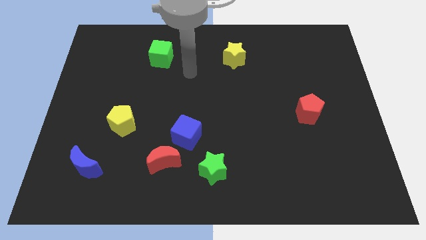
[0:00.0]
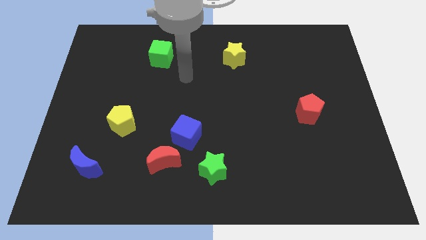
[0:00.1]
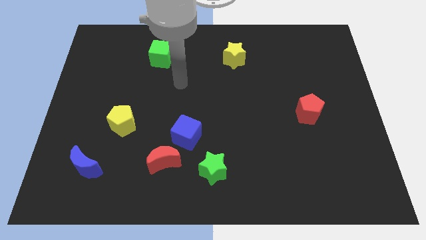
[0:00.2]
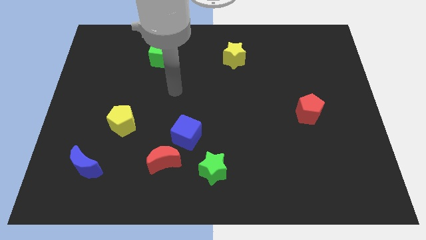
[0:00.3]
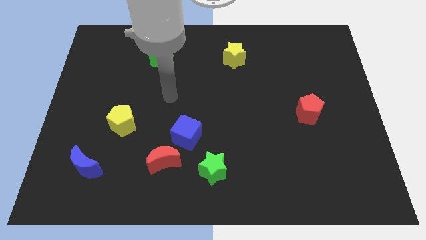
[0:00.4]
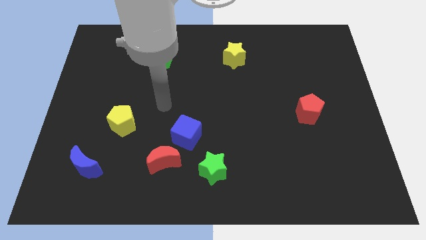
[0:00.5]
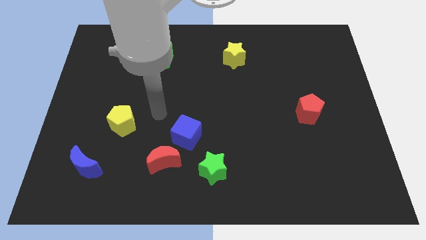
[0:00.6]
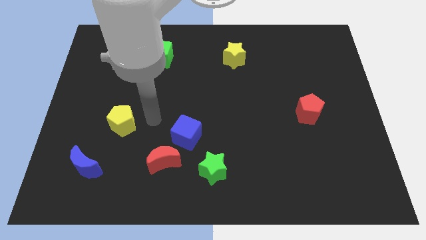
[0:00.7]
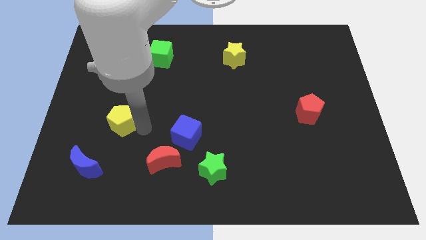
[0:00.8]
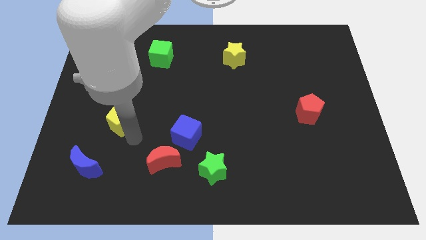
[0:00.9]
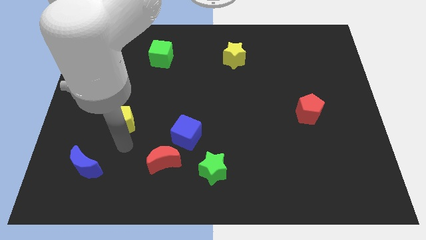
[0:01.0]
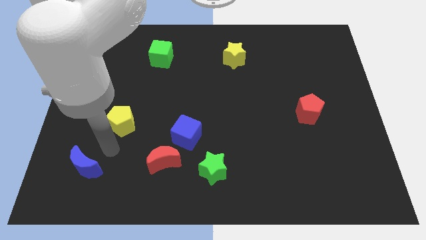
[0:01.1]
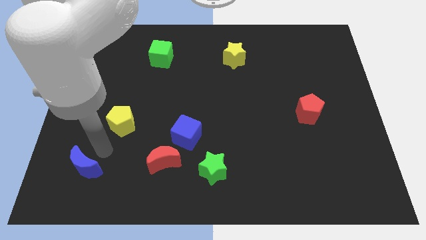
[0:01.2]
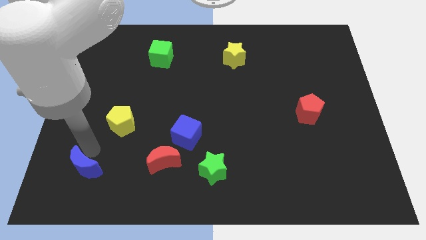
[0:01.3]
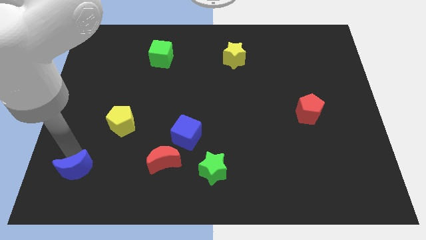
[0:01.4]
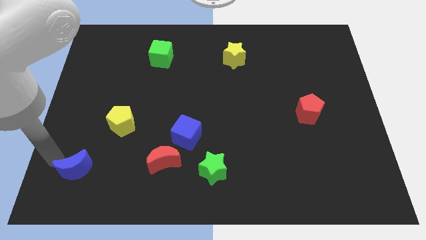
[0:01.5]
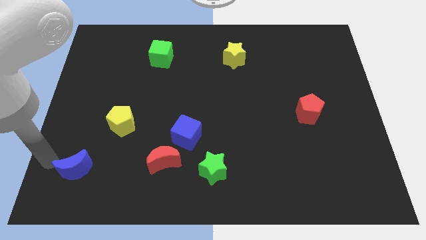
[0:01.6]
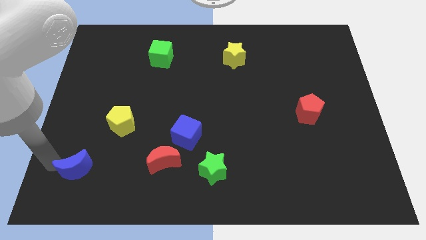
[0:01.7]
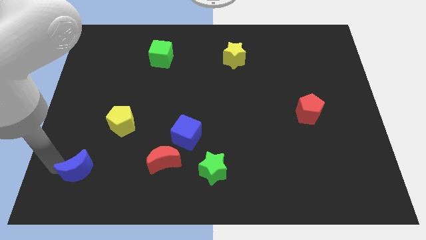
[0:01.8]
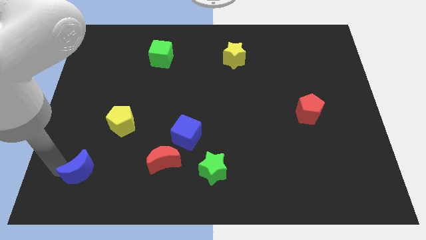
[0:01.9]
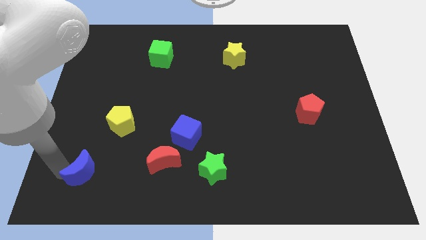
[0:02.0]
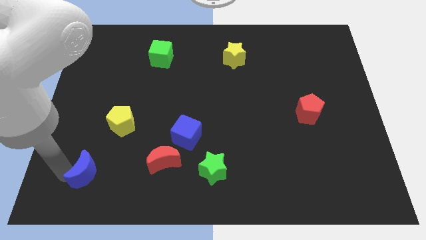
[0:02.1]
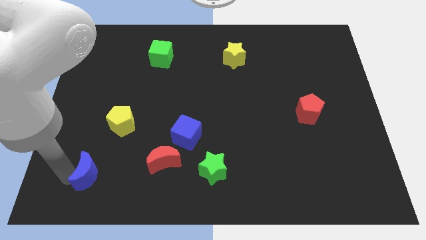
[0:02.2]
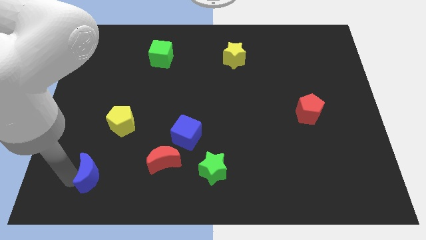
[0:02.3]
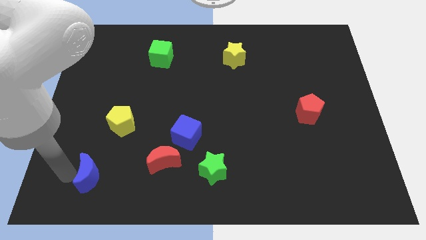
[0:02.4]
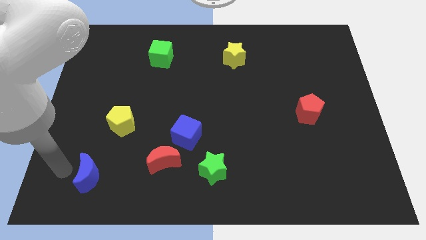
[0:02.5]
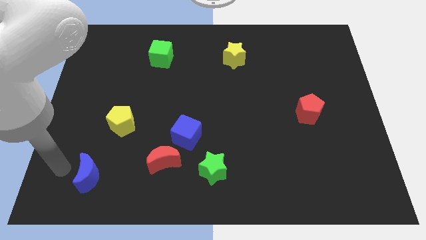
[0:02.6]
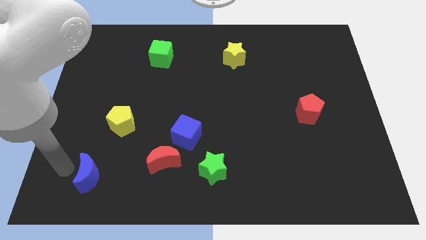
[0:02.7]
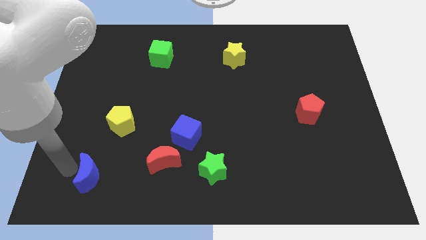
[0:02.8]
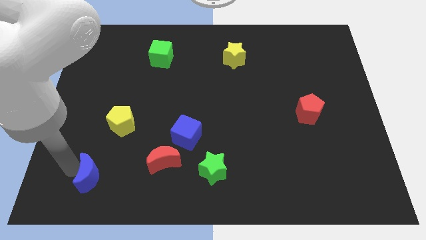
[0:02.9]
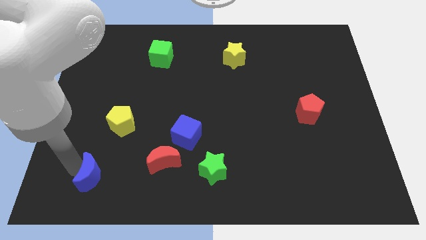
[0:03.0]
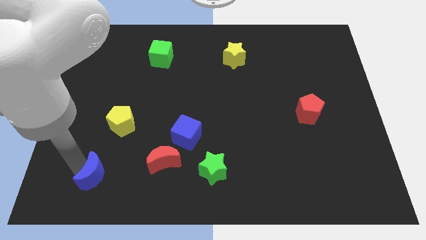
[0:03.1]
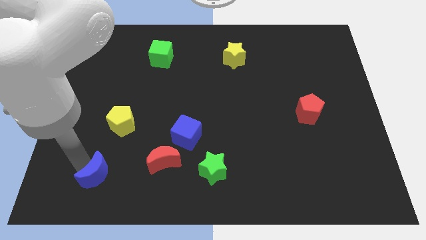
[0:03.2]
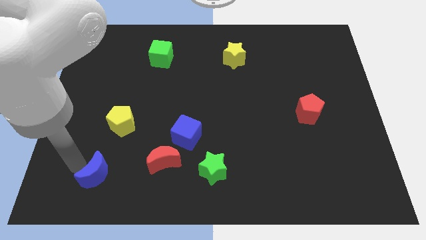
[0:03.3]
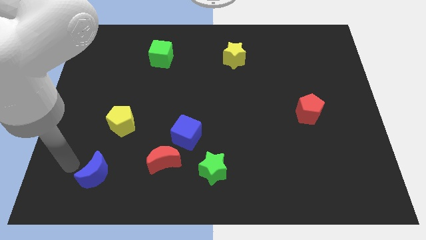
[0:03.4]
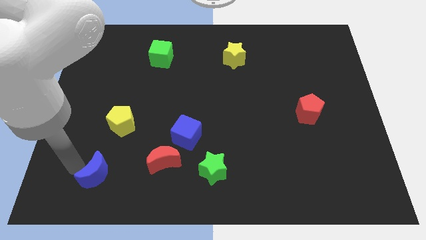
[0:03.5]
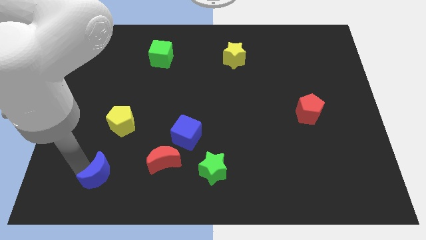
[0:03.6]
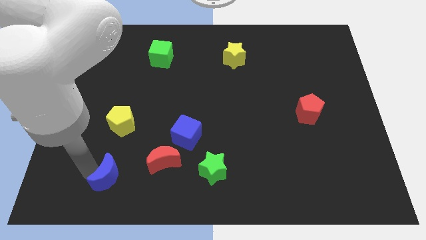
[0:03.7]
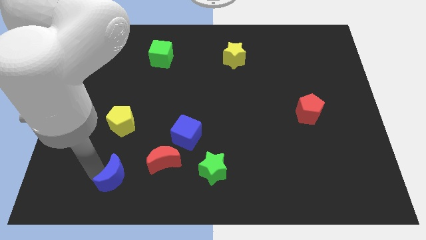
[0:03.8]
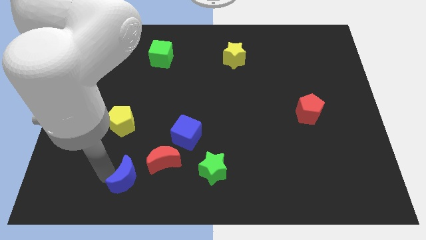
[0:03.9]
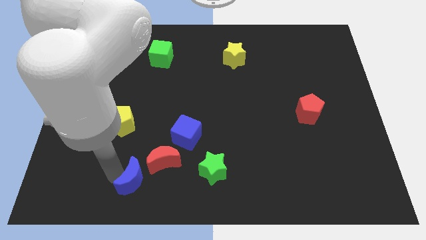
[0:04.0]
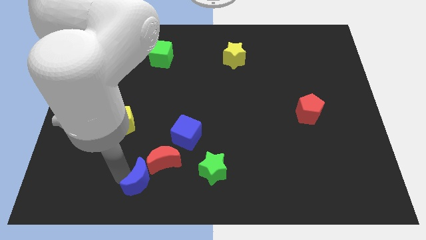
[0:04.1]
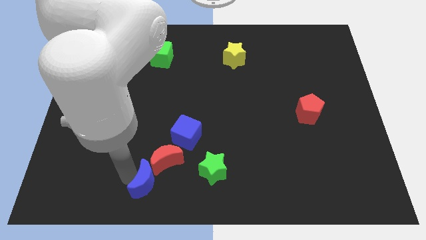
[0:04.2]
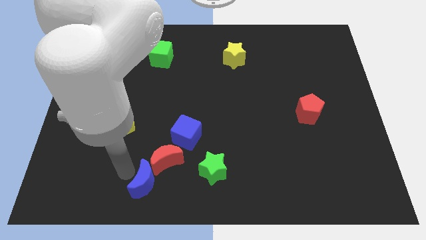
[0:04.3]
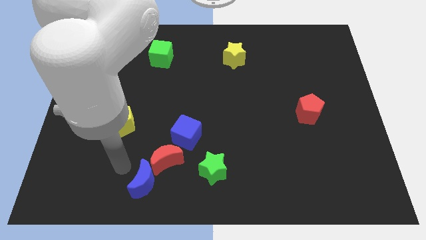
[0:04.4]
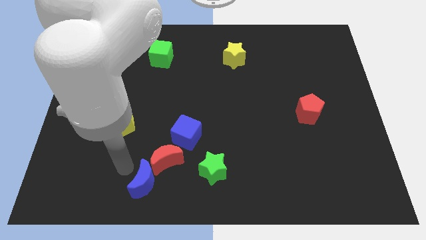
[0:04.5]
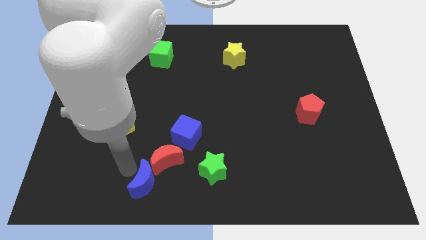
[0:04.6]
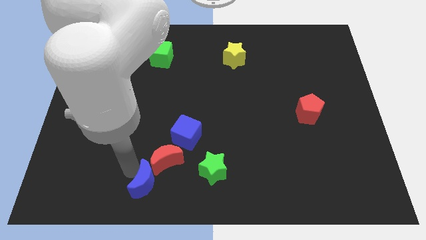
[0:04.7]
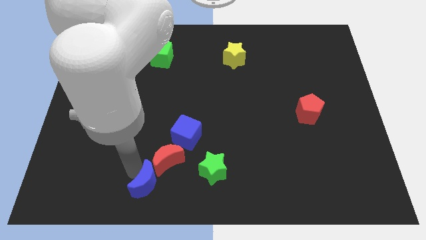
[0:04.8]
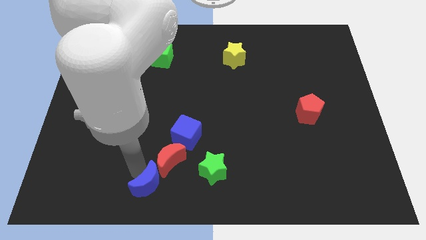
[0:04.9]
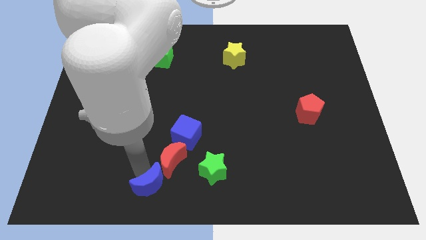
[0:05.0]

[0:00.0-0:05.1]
move the blue moon to the bottom side

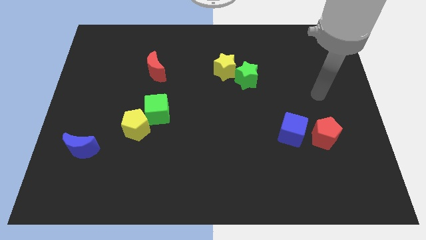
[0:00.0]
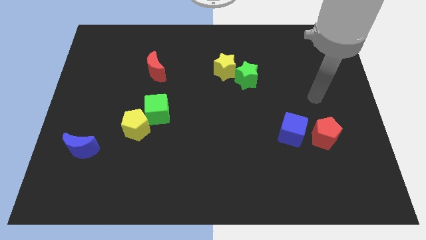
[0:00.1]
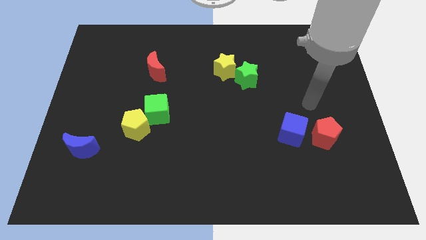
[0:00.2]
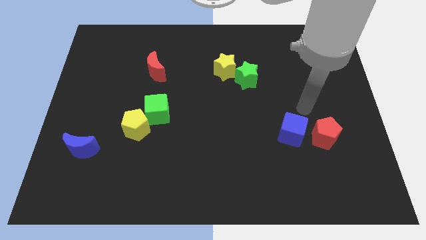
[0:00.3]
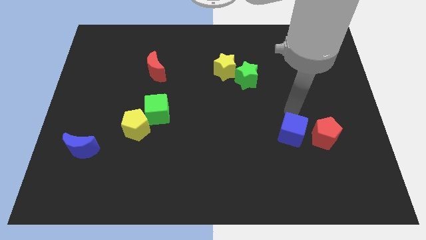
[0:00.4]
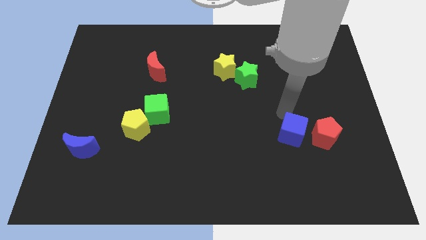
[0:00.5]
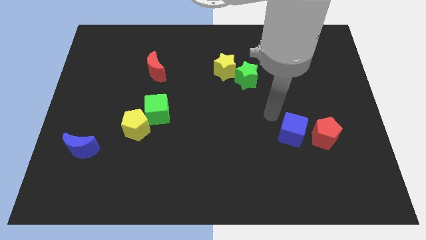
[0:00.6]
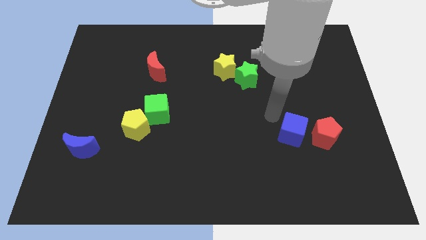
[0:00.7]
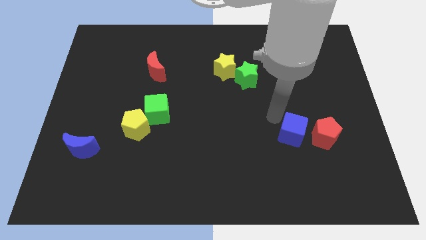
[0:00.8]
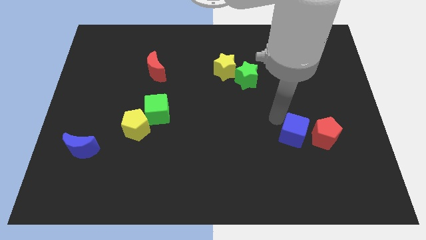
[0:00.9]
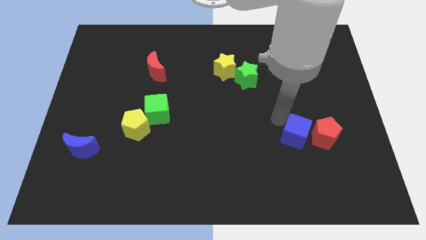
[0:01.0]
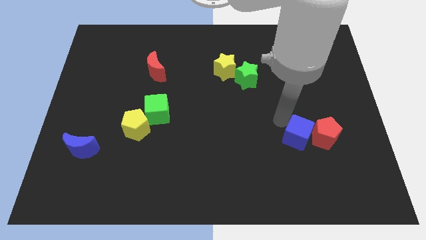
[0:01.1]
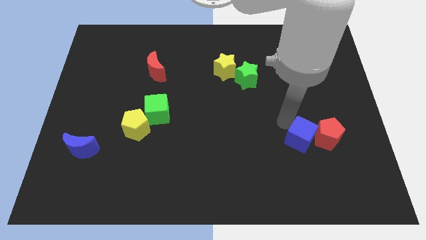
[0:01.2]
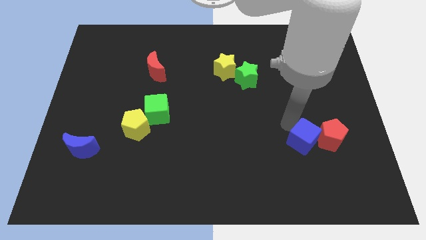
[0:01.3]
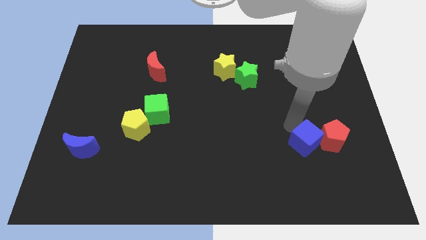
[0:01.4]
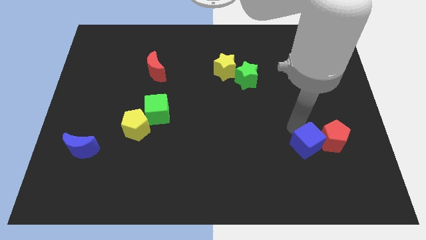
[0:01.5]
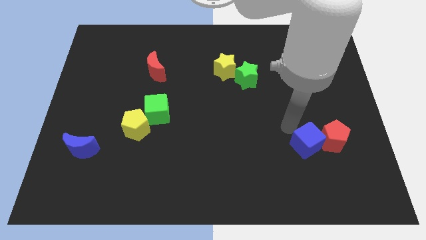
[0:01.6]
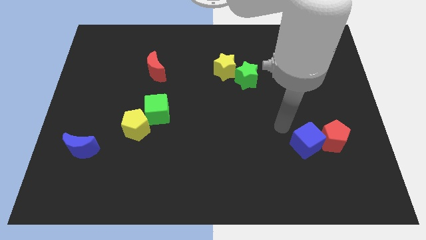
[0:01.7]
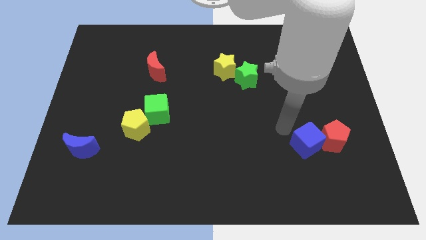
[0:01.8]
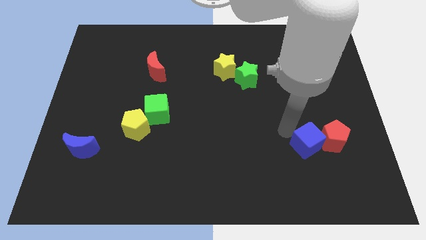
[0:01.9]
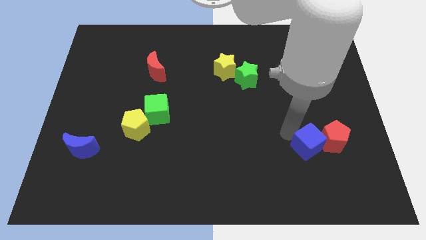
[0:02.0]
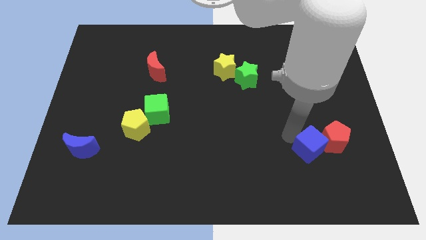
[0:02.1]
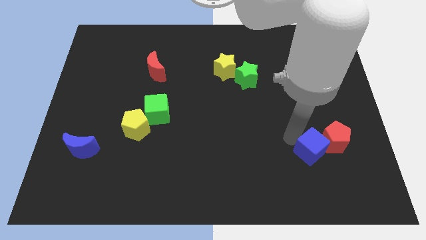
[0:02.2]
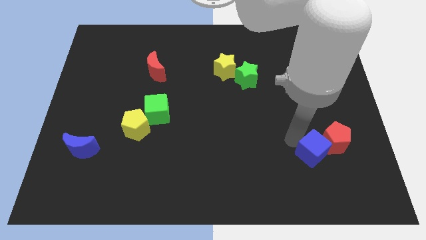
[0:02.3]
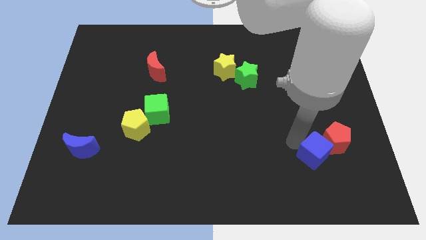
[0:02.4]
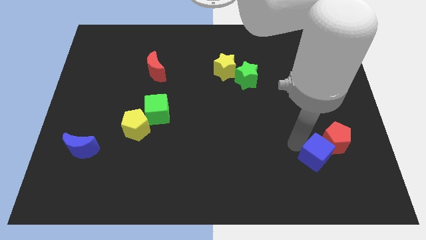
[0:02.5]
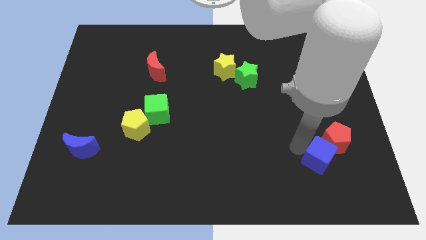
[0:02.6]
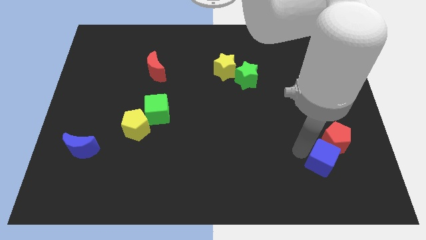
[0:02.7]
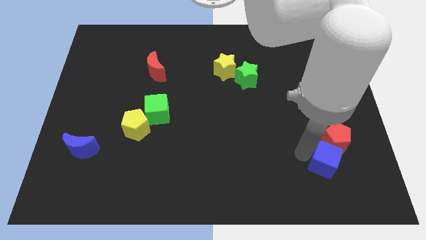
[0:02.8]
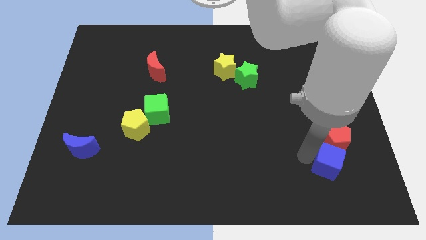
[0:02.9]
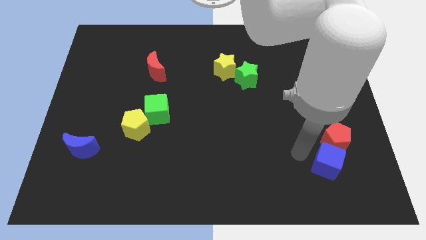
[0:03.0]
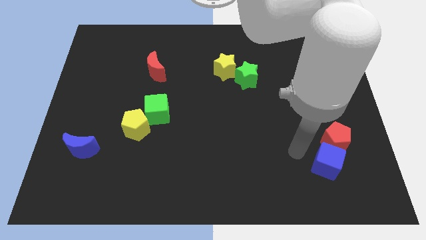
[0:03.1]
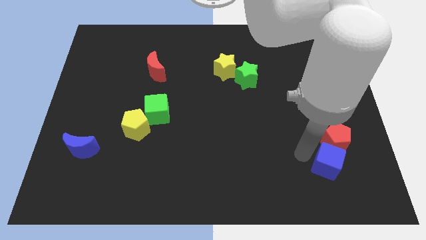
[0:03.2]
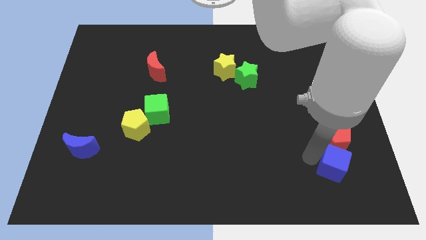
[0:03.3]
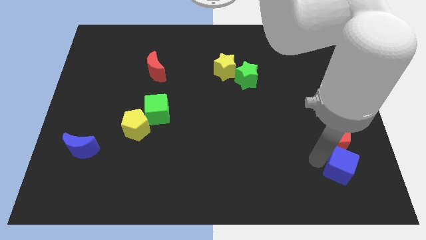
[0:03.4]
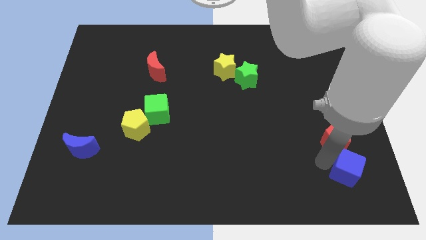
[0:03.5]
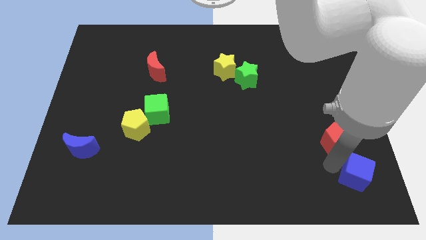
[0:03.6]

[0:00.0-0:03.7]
put the blue cube to the bottom right of the board
